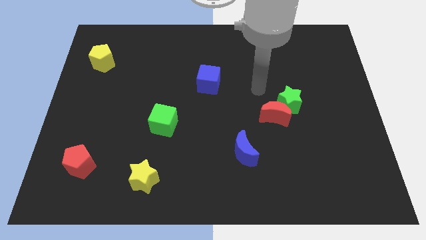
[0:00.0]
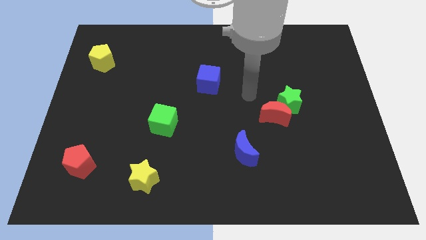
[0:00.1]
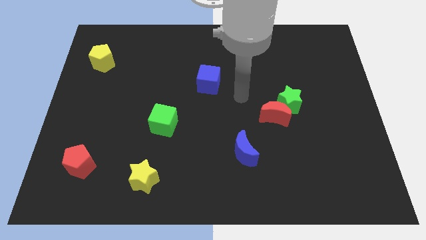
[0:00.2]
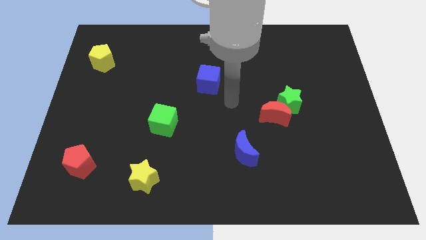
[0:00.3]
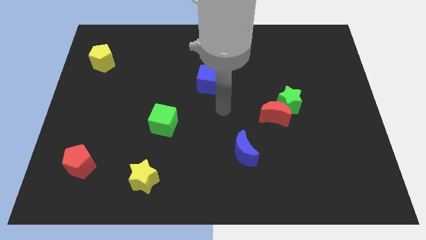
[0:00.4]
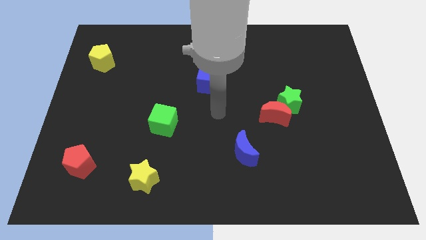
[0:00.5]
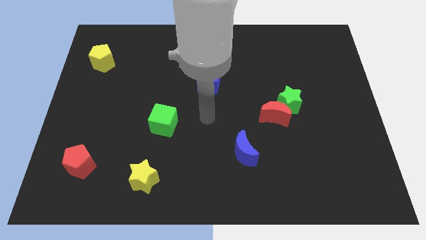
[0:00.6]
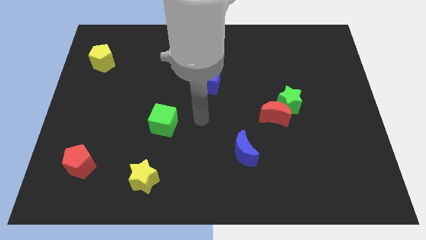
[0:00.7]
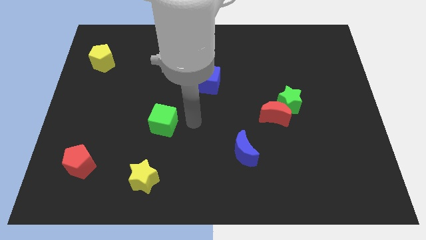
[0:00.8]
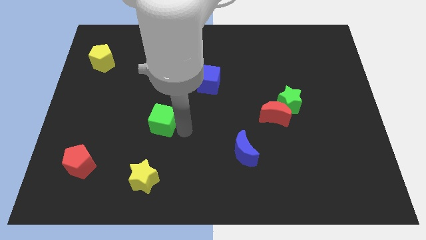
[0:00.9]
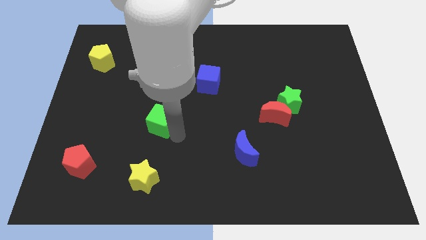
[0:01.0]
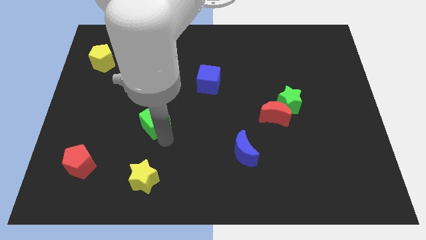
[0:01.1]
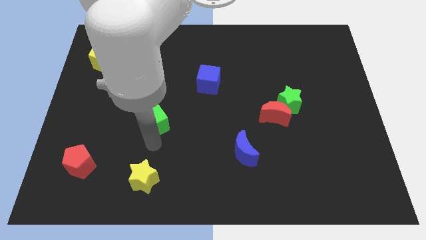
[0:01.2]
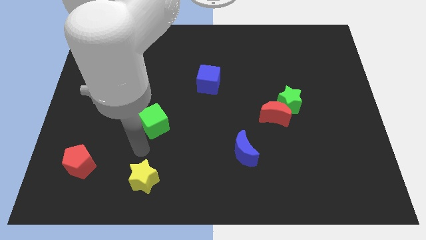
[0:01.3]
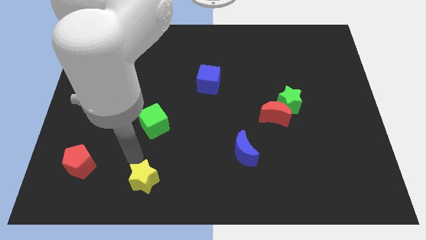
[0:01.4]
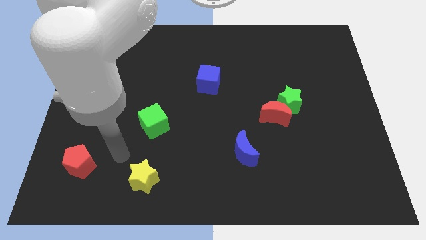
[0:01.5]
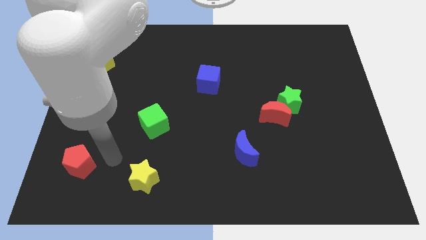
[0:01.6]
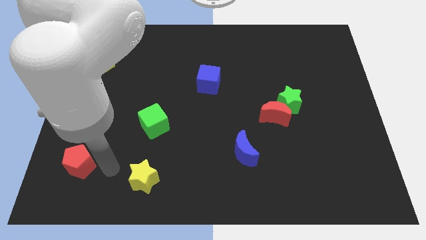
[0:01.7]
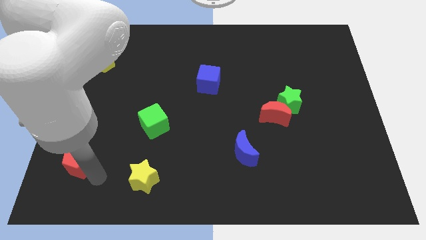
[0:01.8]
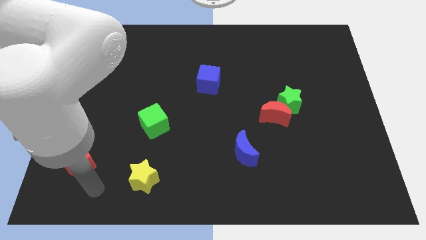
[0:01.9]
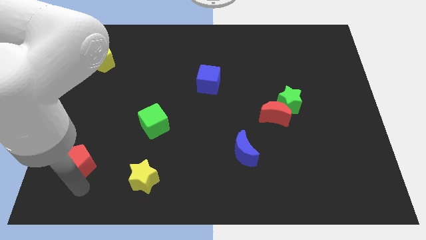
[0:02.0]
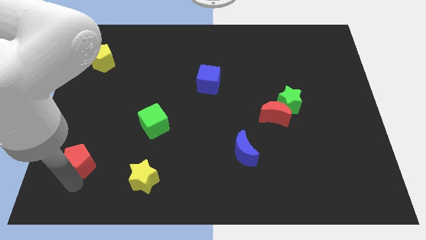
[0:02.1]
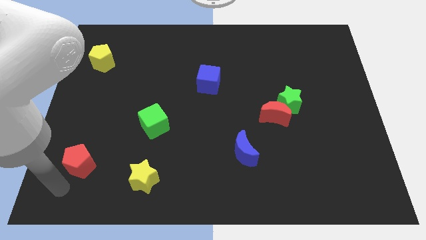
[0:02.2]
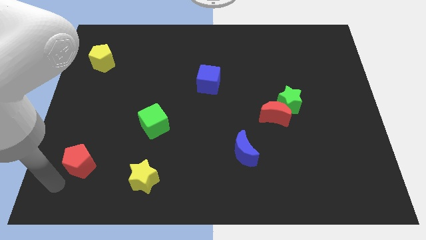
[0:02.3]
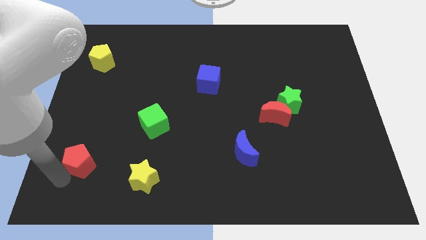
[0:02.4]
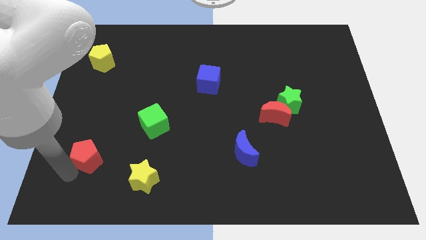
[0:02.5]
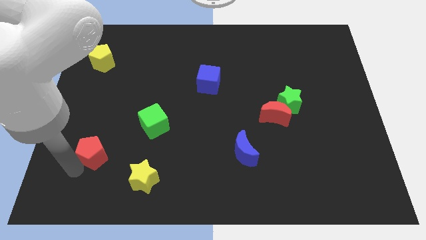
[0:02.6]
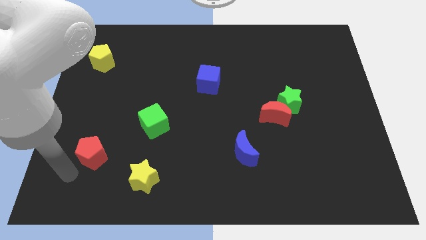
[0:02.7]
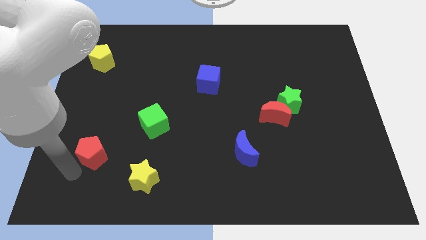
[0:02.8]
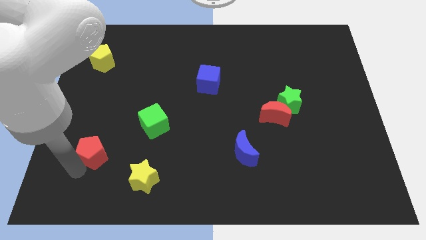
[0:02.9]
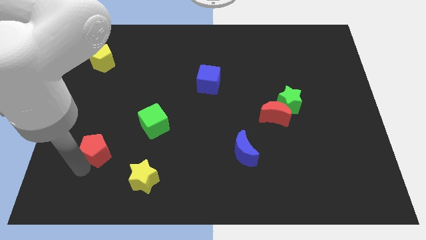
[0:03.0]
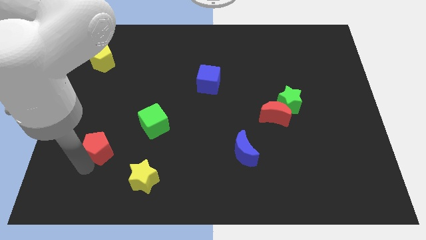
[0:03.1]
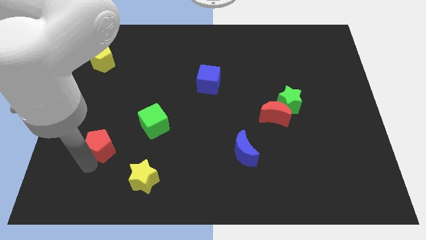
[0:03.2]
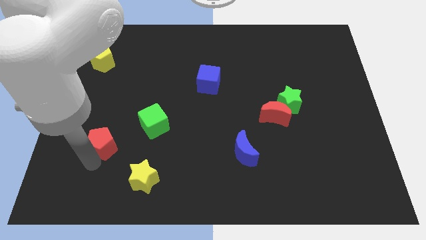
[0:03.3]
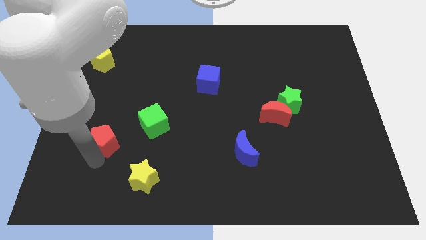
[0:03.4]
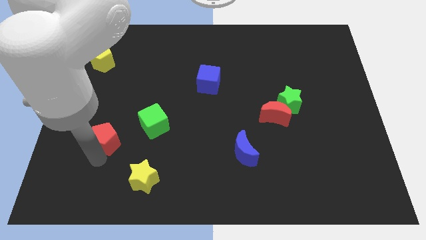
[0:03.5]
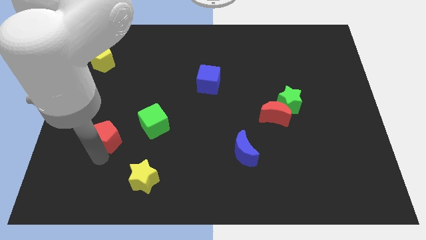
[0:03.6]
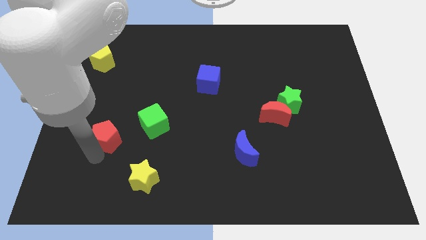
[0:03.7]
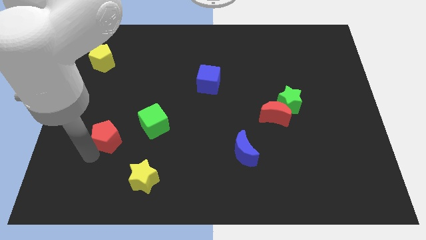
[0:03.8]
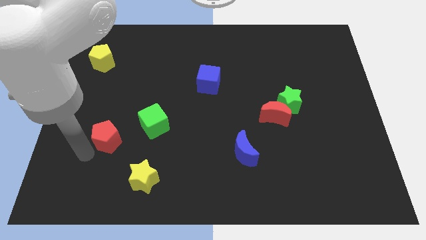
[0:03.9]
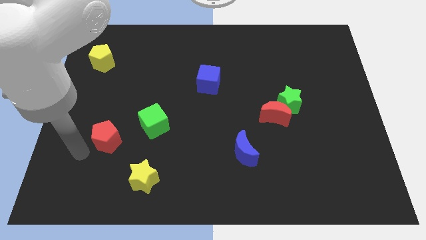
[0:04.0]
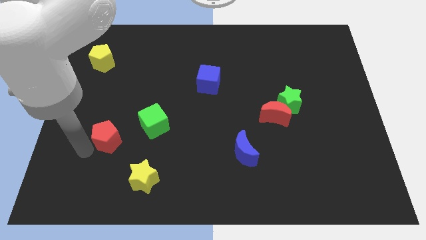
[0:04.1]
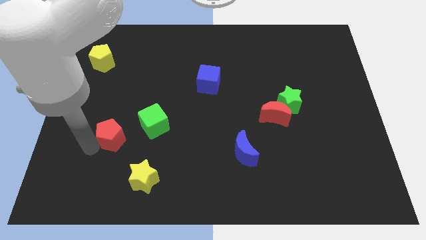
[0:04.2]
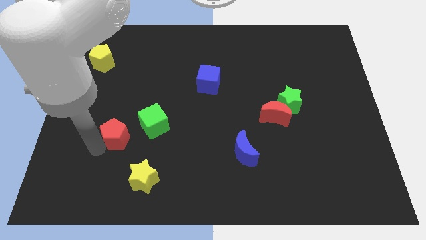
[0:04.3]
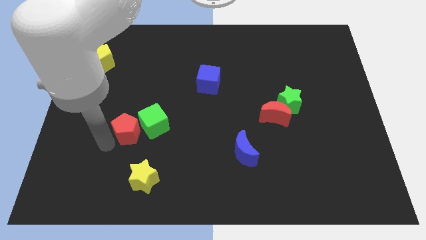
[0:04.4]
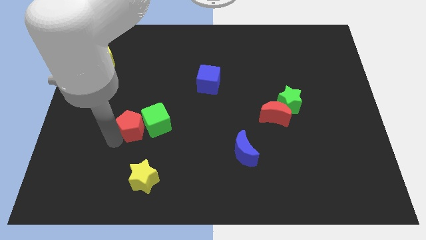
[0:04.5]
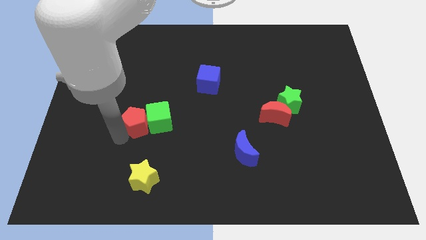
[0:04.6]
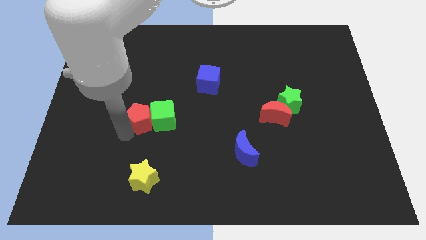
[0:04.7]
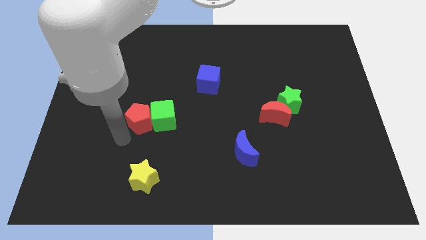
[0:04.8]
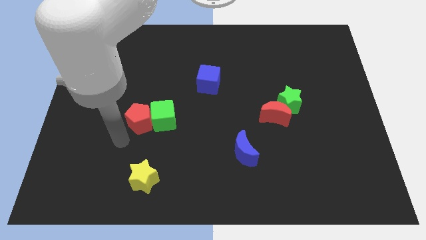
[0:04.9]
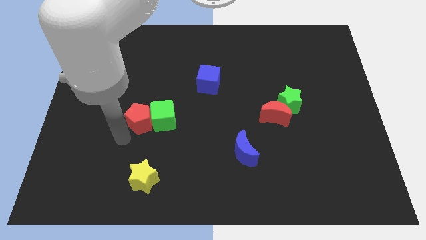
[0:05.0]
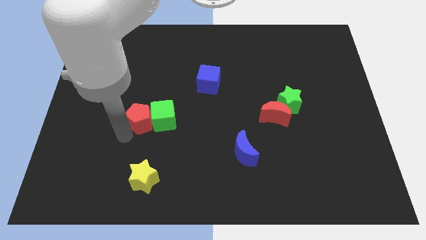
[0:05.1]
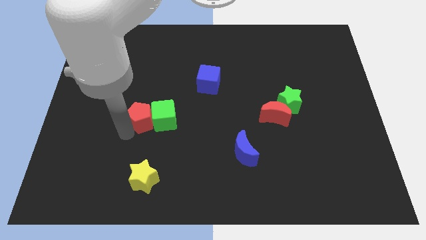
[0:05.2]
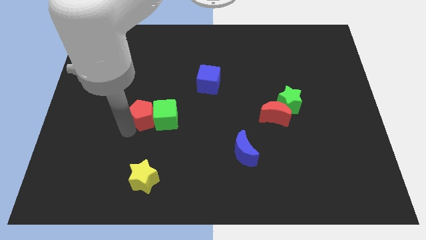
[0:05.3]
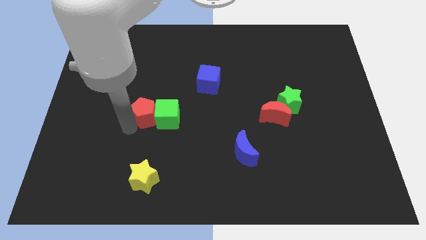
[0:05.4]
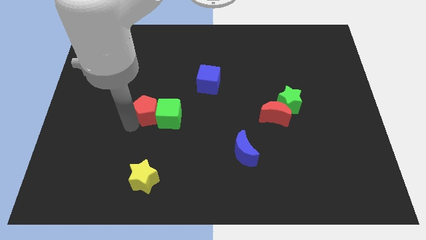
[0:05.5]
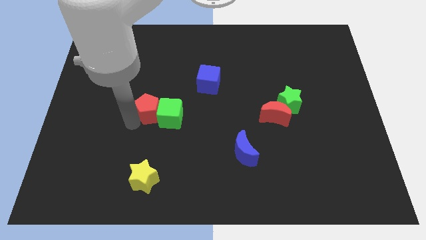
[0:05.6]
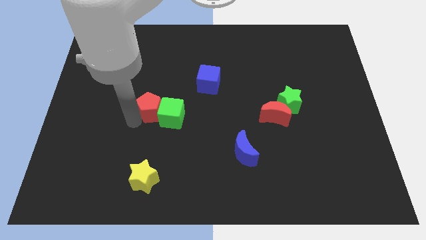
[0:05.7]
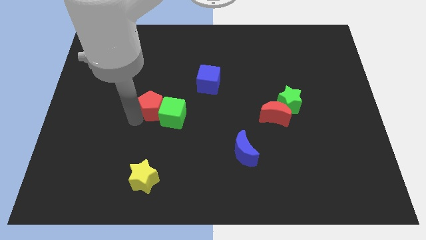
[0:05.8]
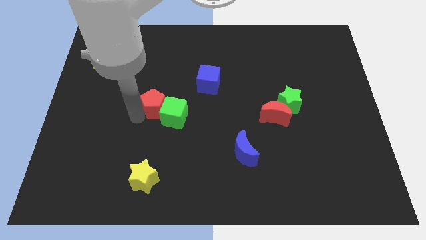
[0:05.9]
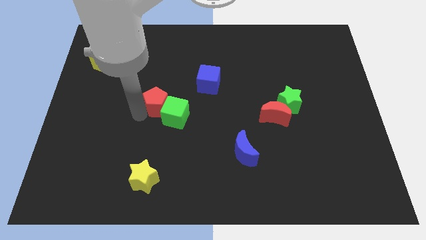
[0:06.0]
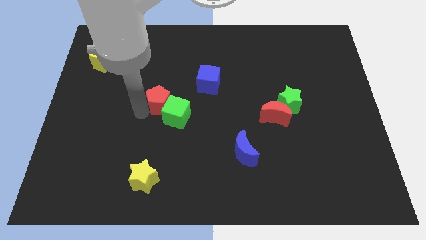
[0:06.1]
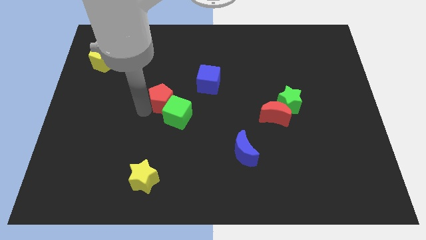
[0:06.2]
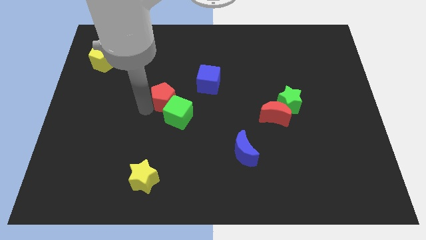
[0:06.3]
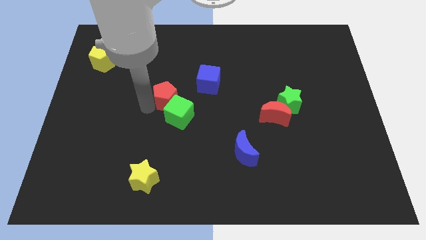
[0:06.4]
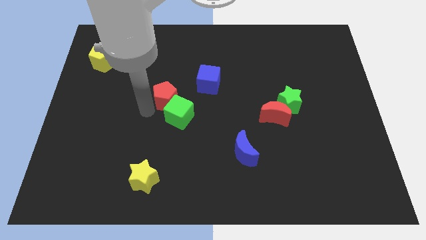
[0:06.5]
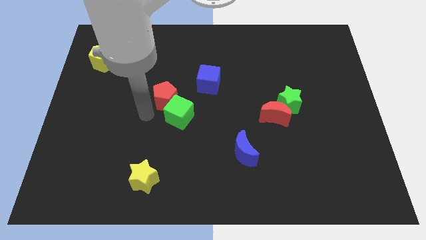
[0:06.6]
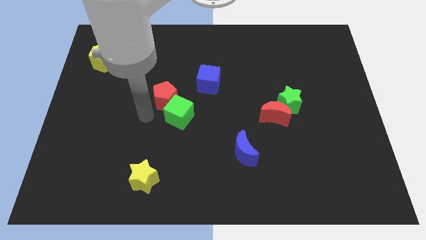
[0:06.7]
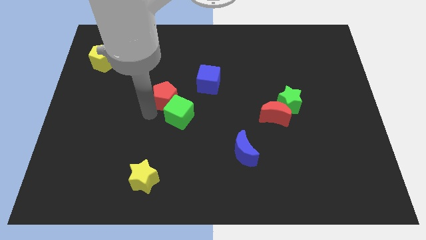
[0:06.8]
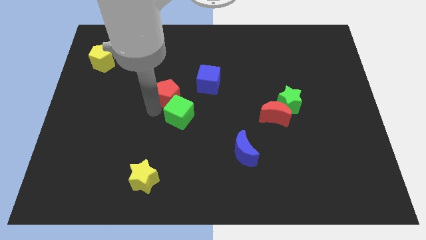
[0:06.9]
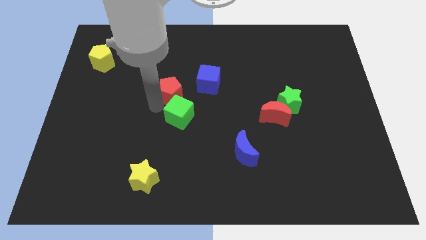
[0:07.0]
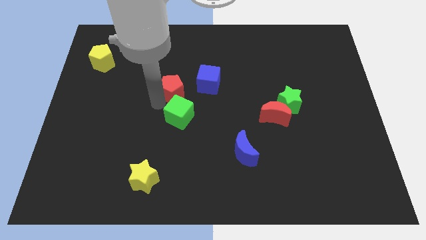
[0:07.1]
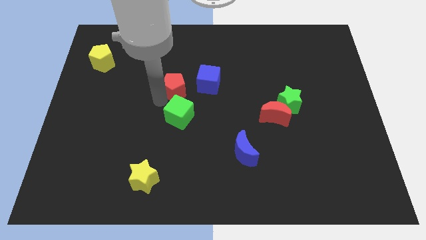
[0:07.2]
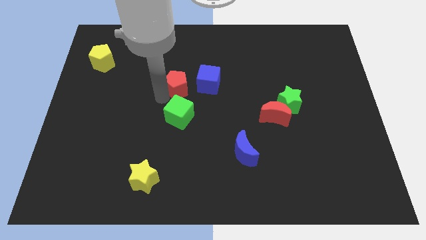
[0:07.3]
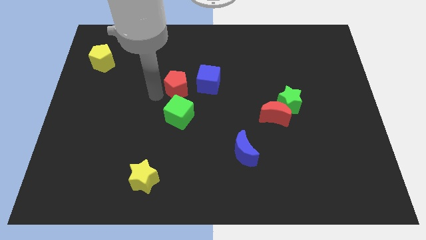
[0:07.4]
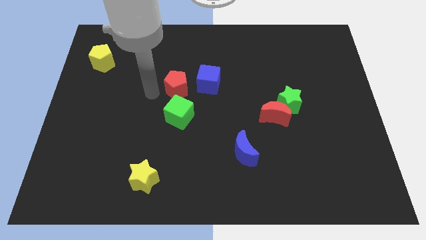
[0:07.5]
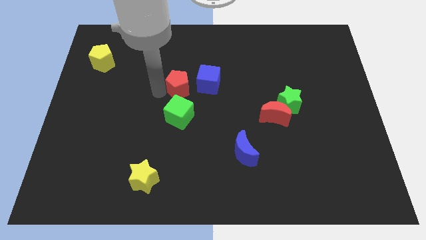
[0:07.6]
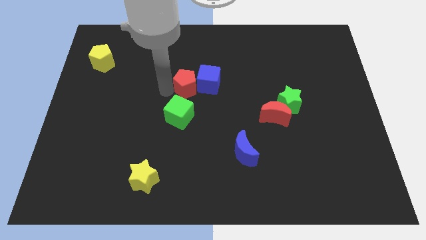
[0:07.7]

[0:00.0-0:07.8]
move the red pentagon close to the blue cube
